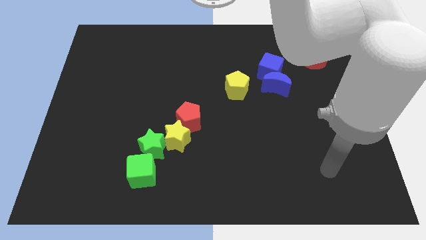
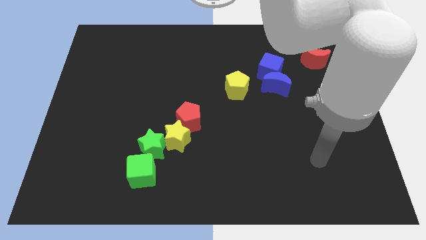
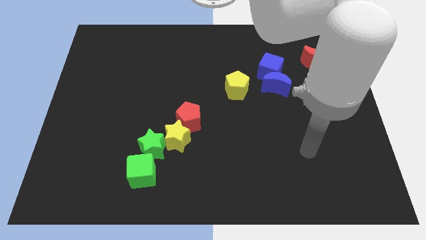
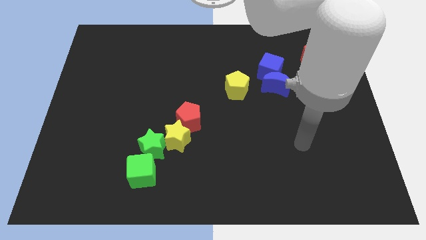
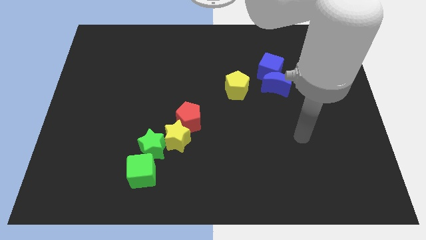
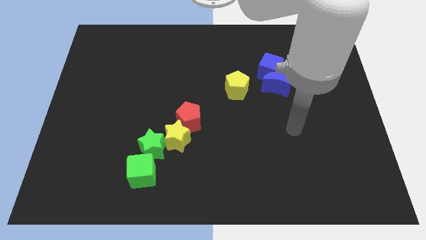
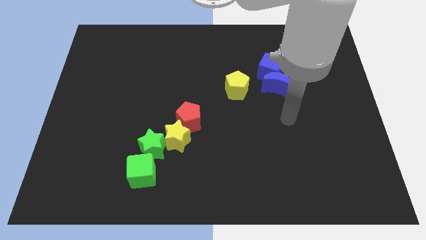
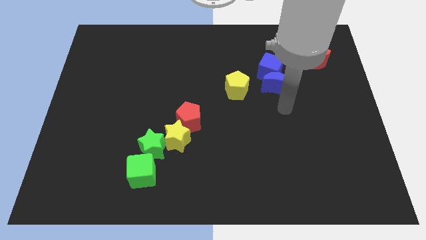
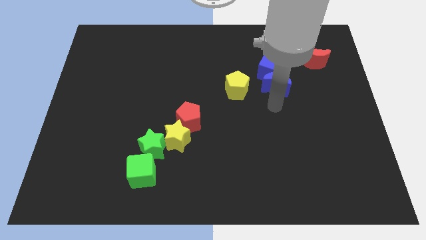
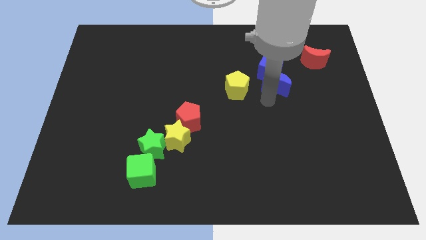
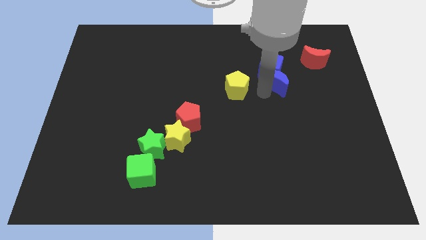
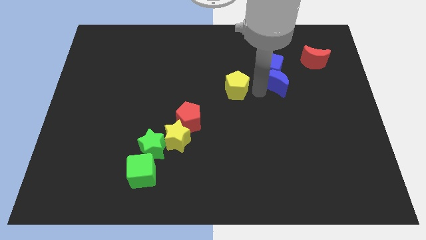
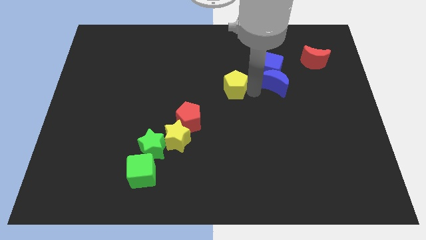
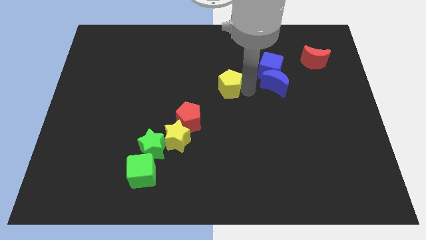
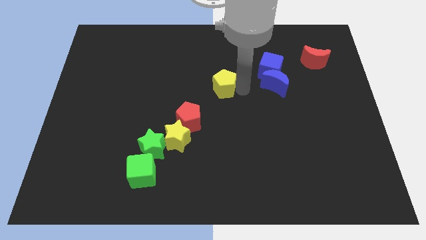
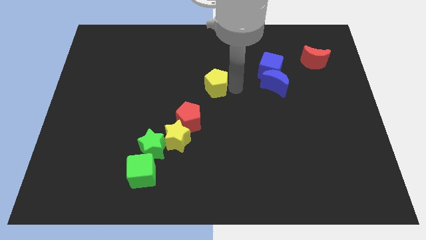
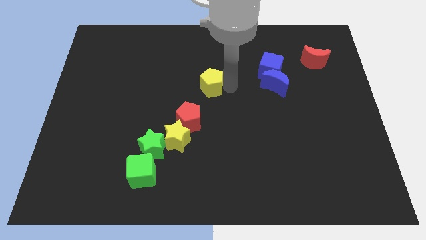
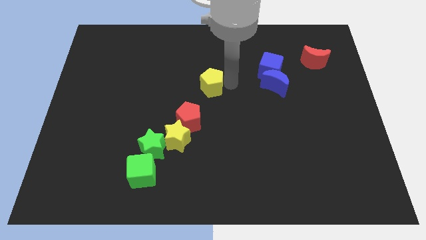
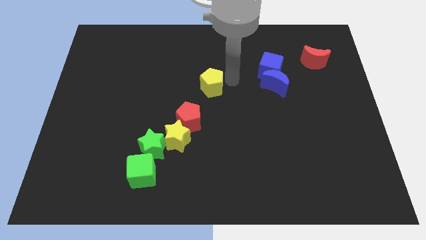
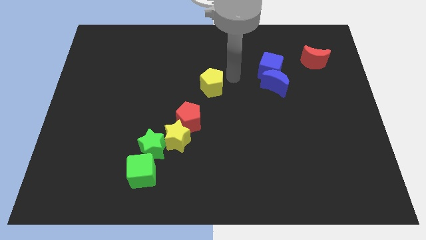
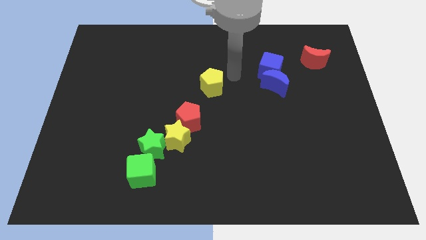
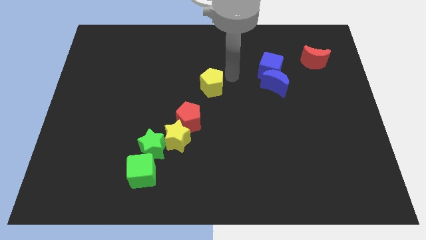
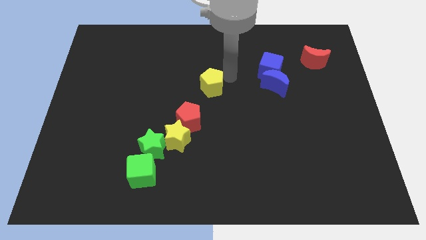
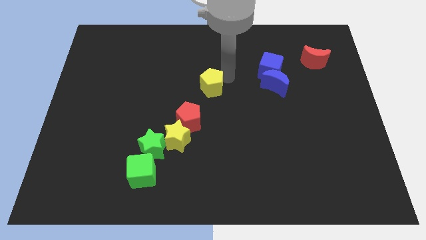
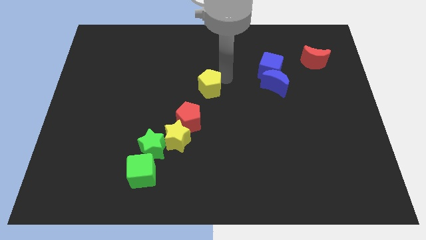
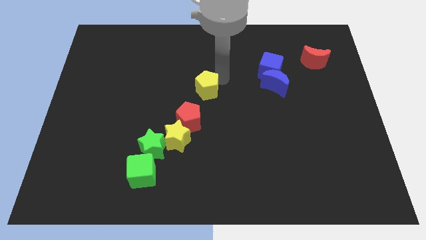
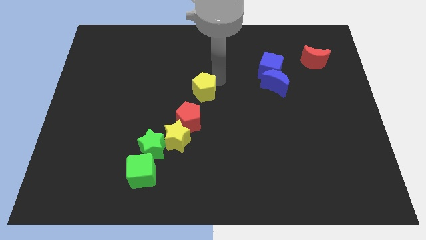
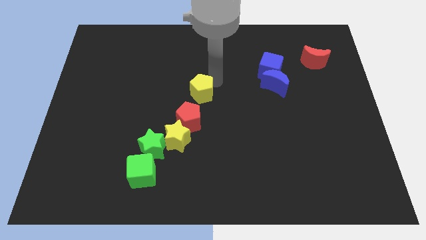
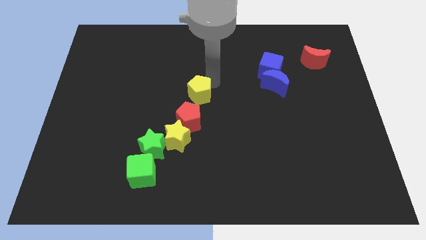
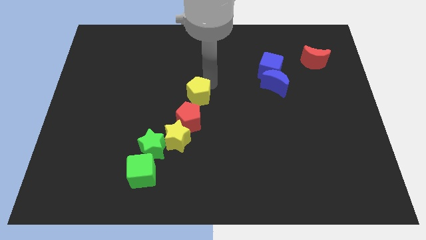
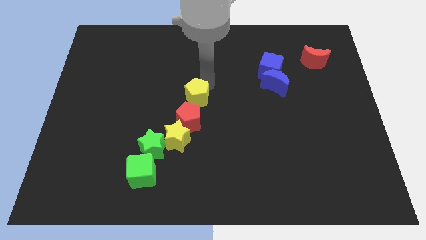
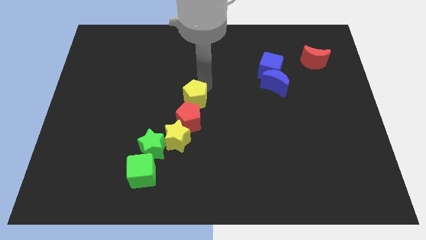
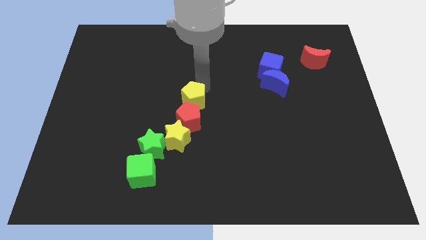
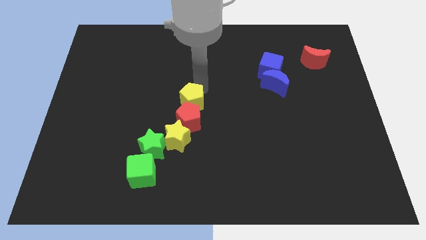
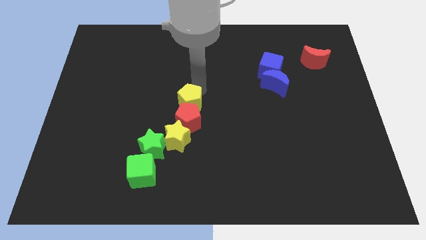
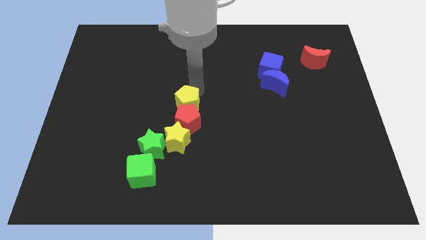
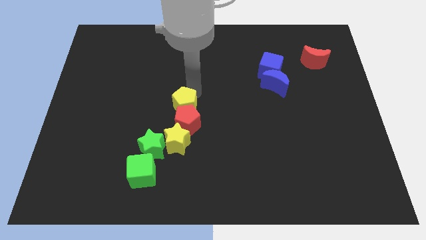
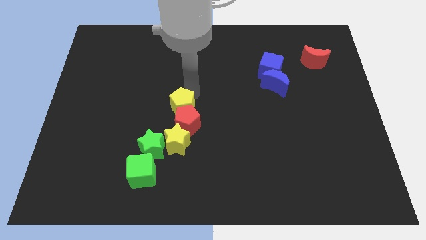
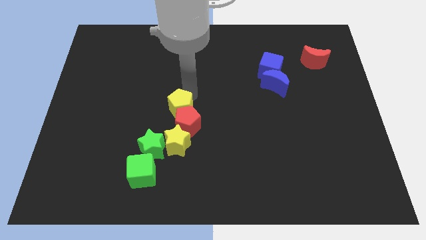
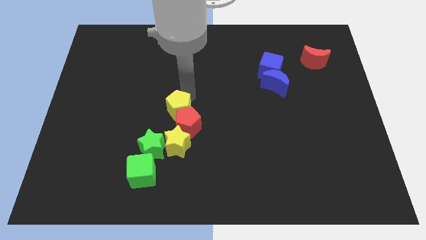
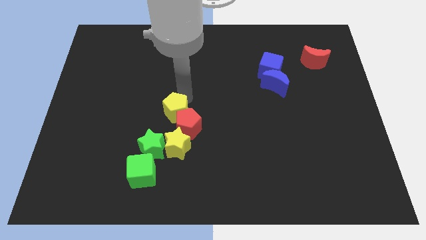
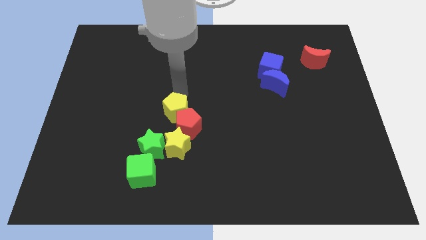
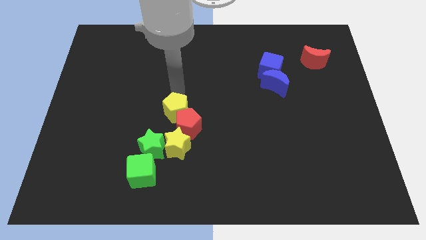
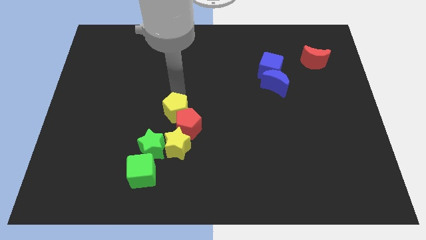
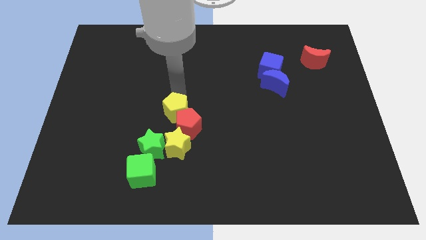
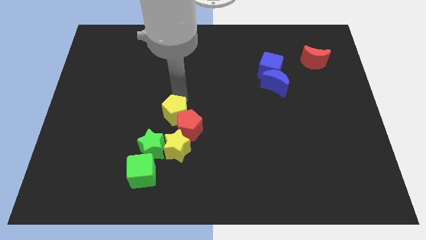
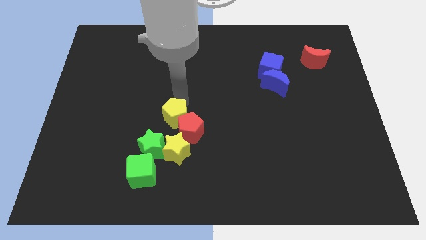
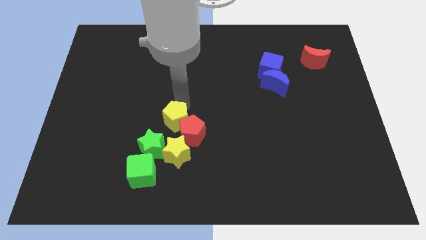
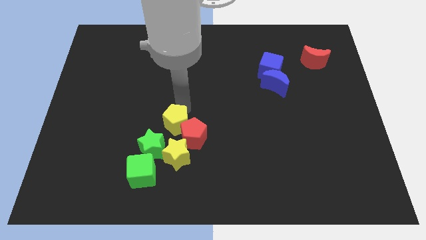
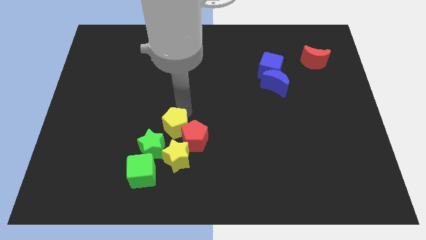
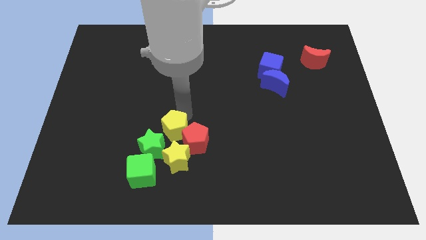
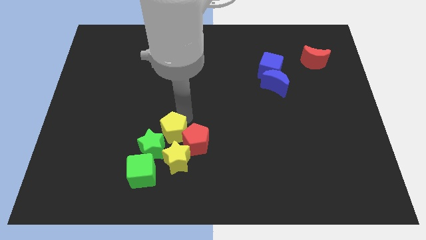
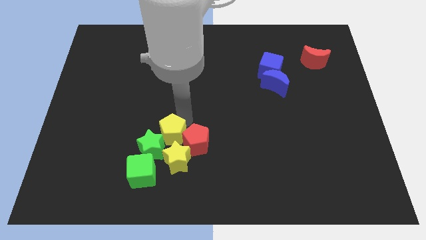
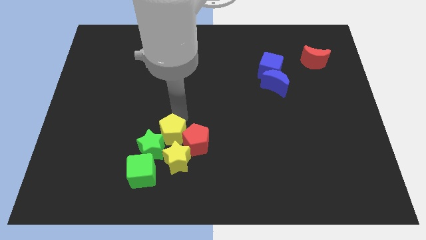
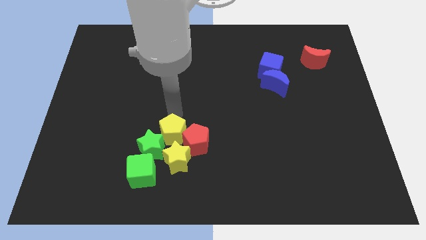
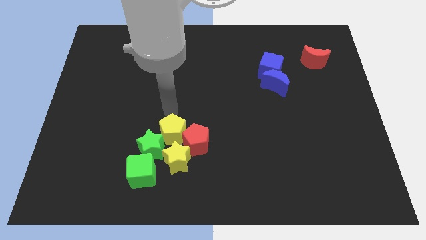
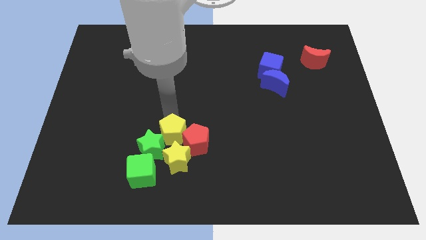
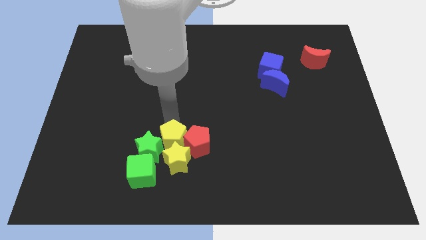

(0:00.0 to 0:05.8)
slide the yellow pentagon to the yellow star

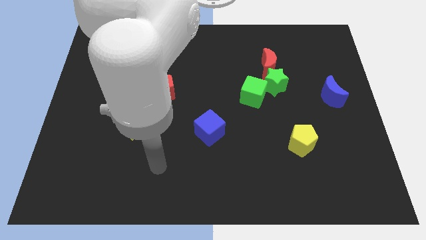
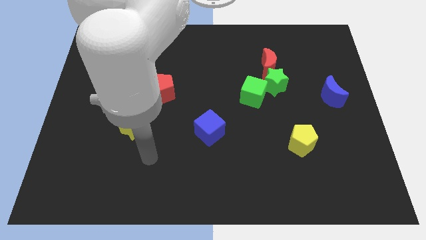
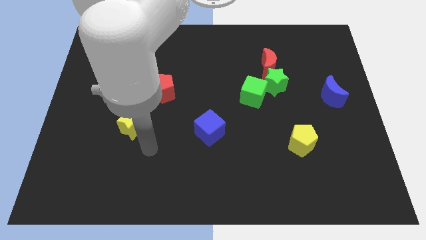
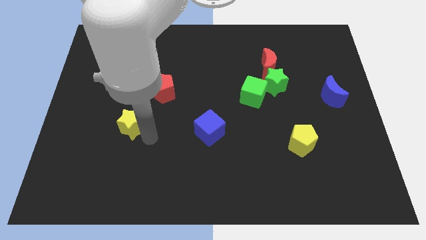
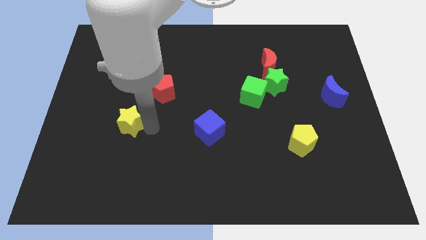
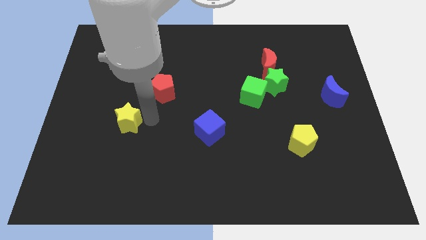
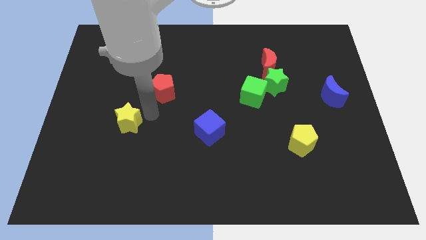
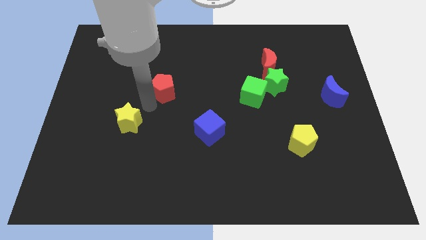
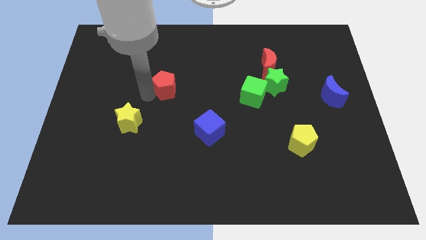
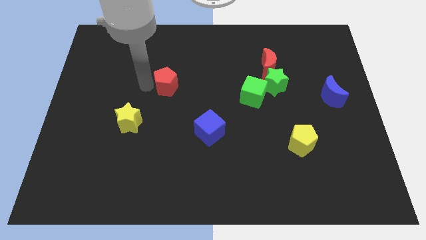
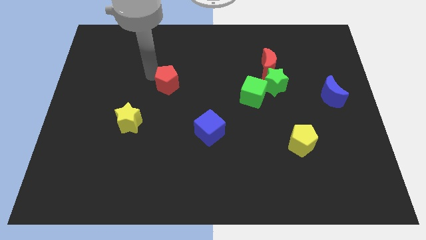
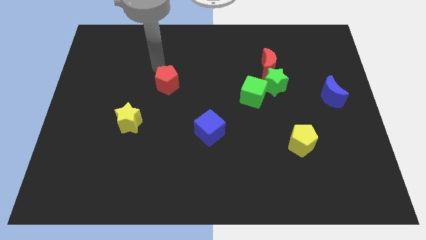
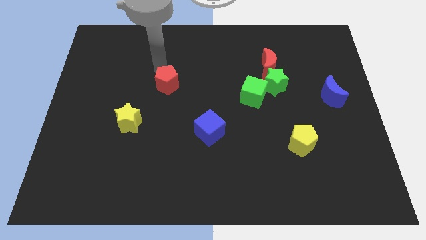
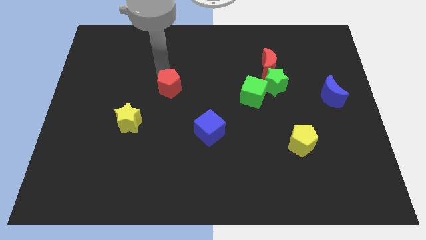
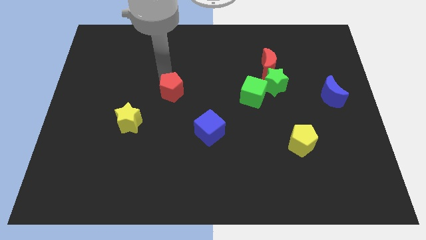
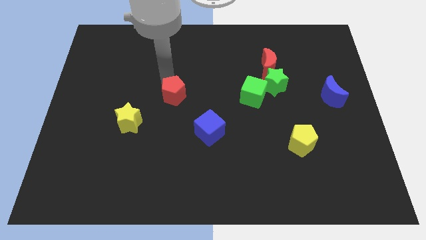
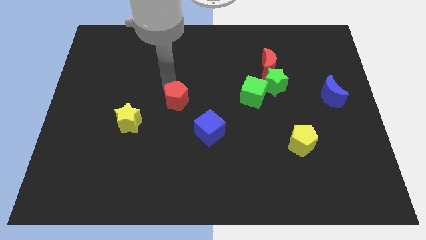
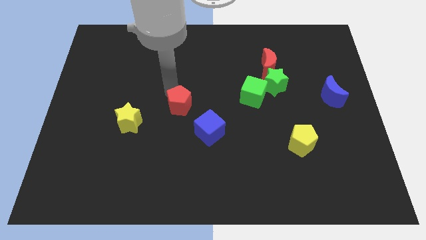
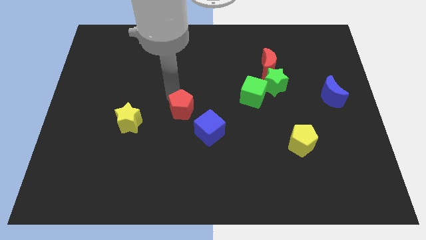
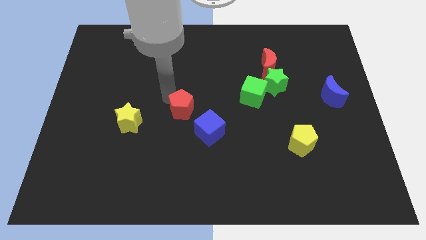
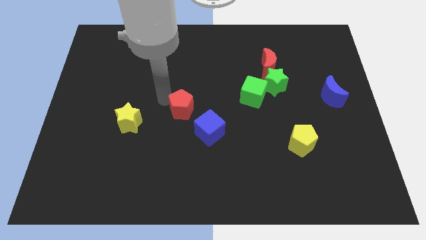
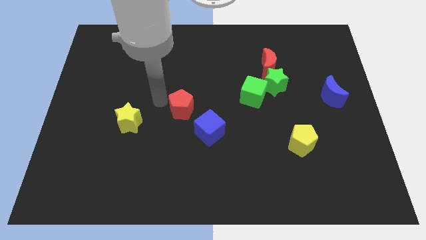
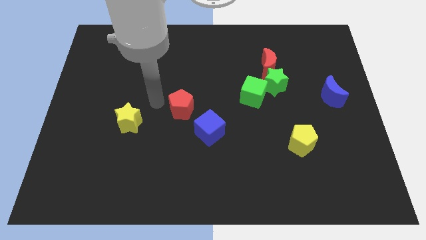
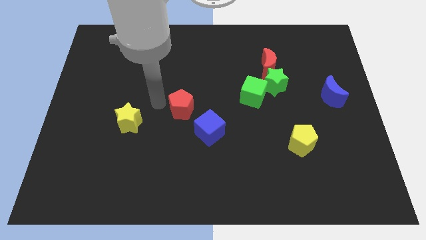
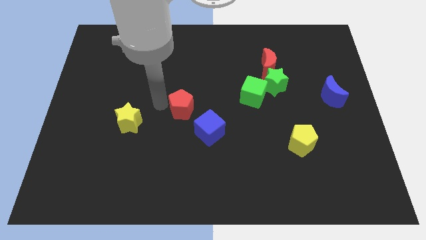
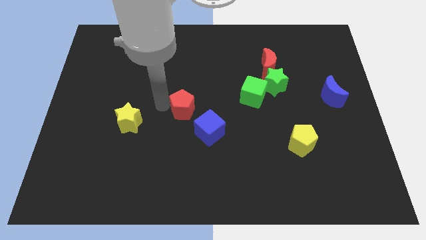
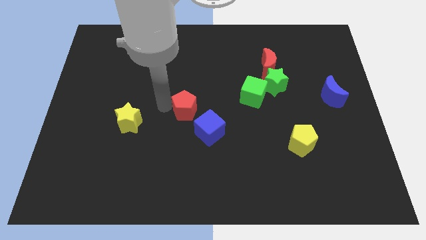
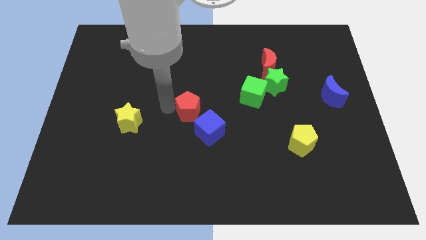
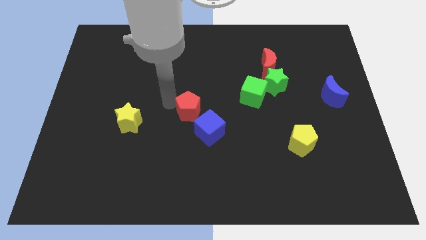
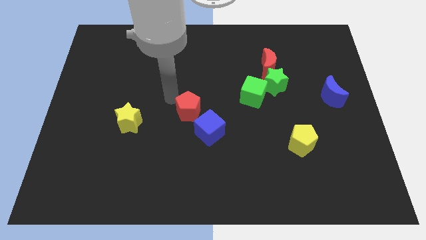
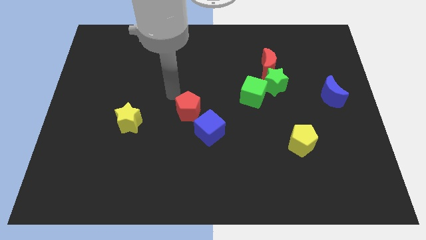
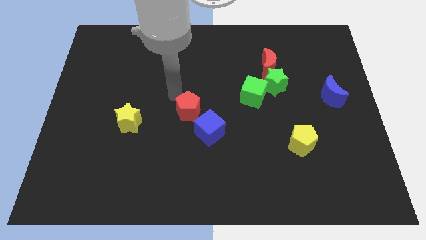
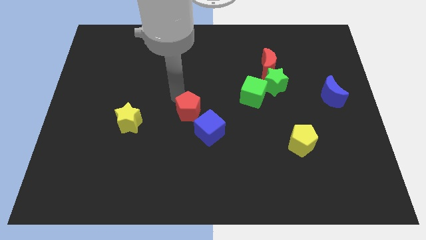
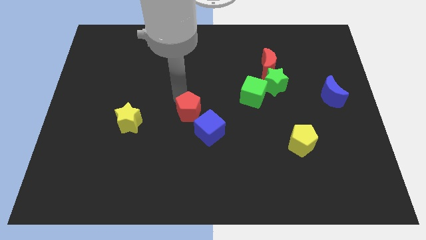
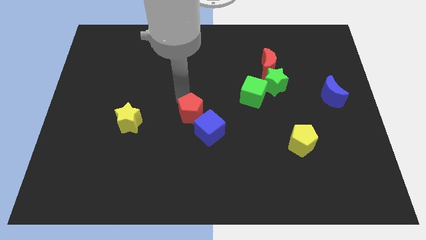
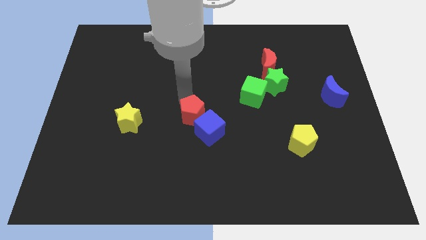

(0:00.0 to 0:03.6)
move the red pentagon towards the blue cube
